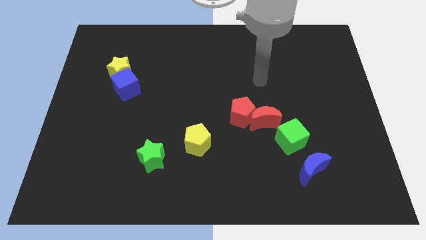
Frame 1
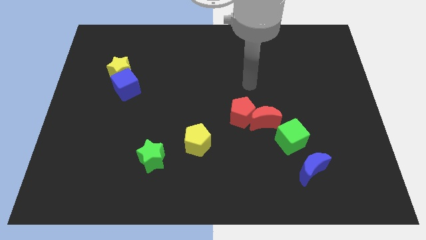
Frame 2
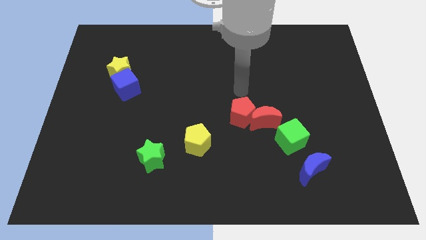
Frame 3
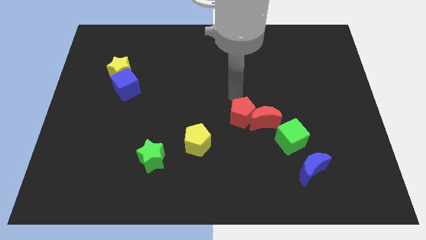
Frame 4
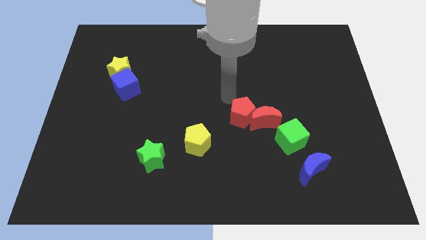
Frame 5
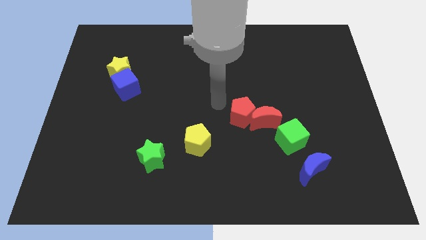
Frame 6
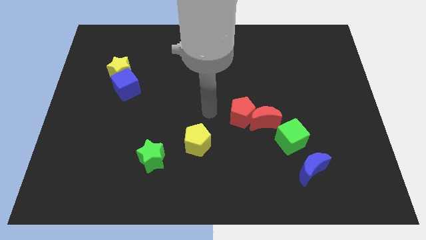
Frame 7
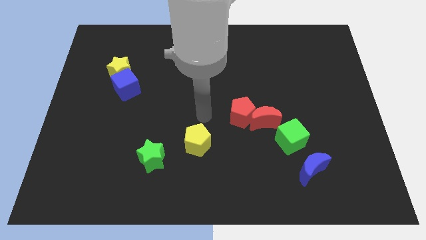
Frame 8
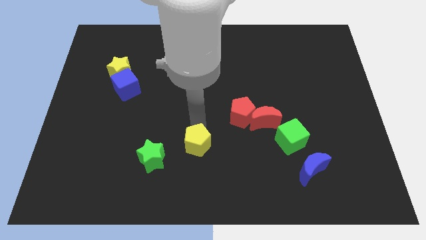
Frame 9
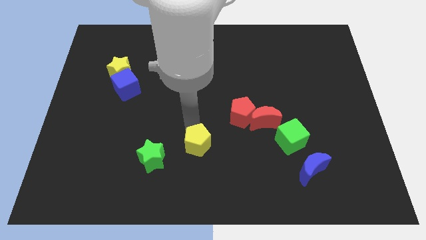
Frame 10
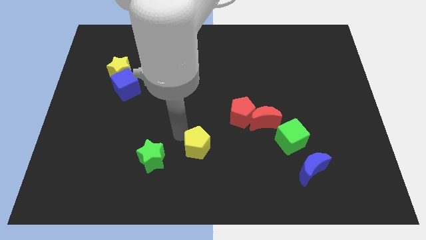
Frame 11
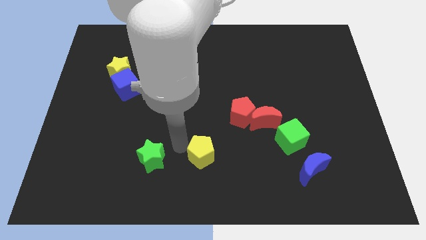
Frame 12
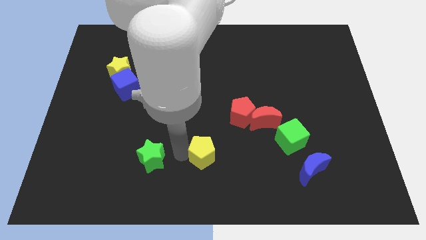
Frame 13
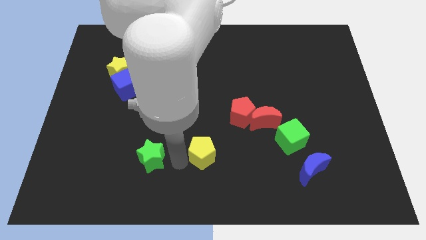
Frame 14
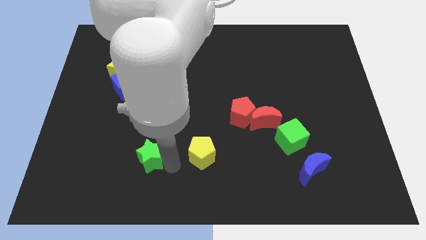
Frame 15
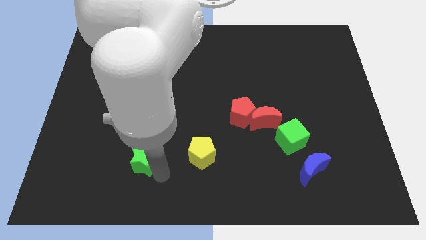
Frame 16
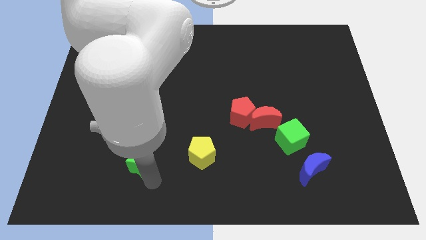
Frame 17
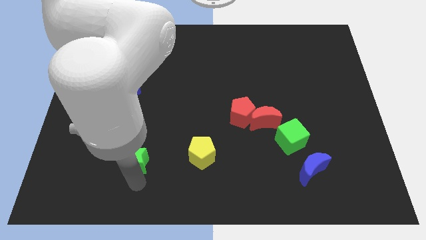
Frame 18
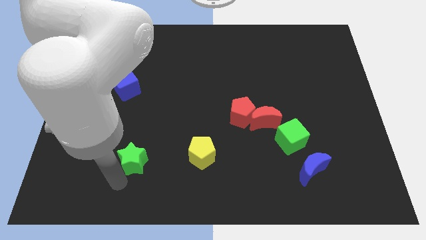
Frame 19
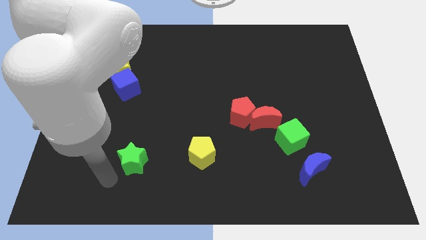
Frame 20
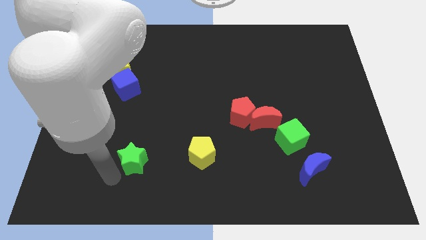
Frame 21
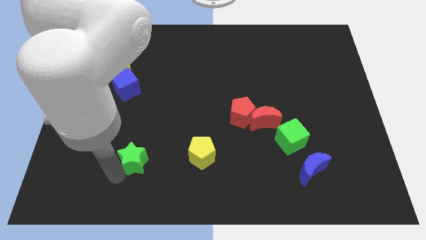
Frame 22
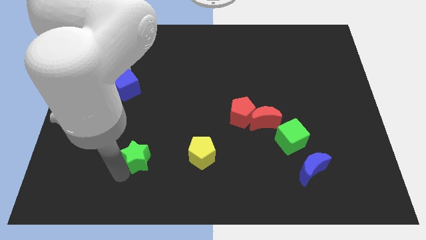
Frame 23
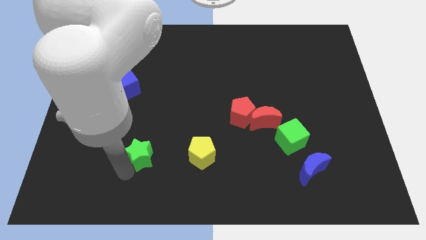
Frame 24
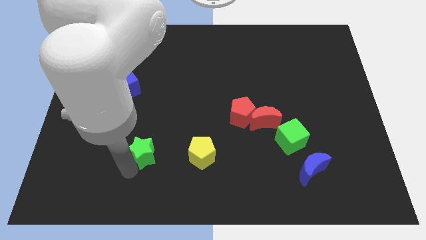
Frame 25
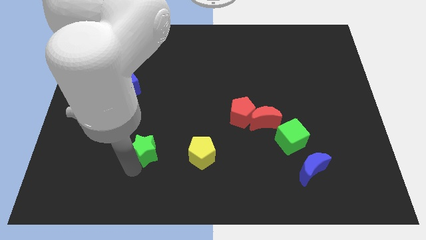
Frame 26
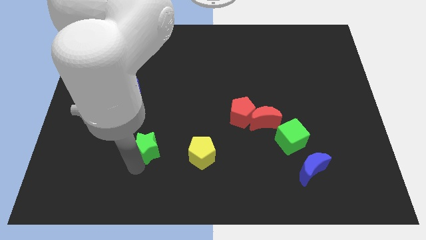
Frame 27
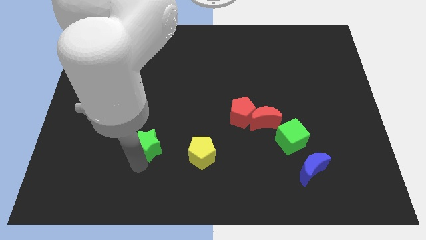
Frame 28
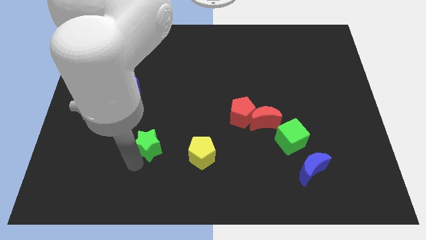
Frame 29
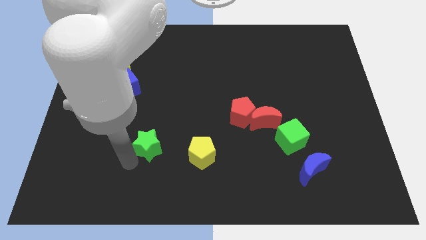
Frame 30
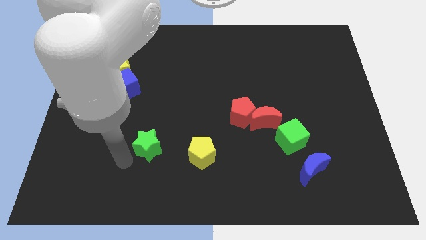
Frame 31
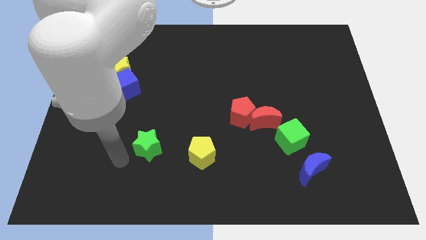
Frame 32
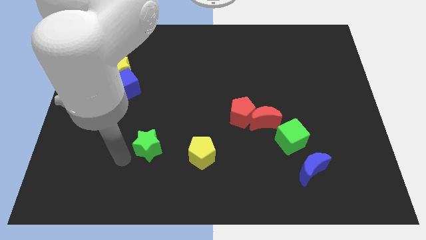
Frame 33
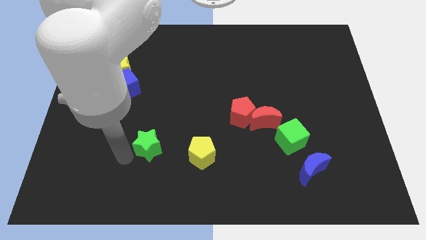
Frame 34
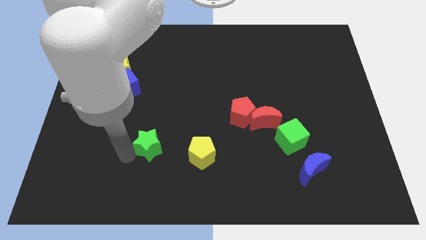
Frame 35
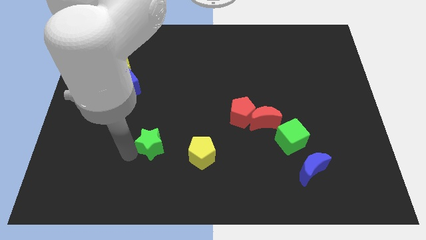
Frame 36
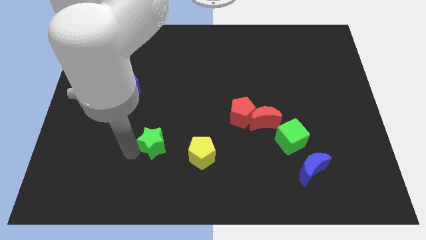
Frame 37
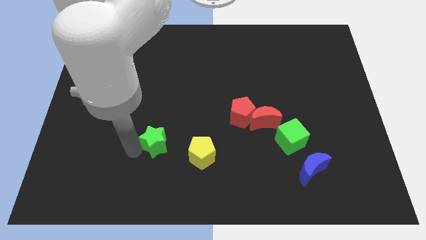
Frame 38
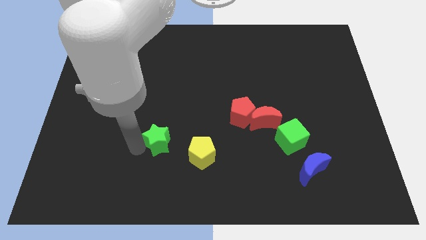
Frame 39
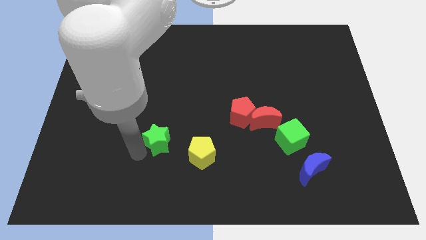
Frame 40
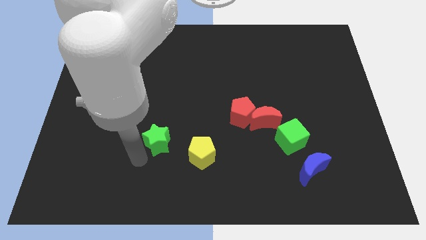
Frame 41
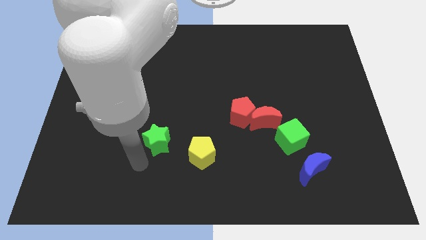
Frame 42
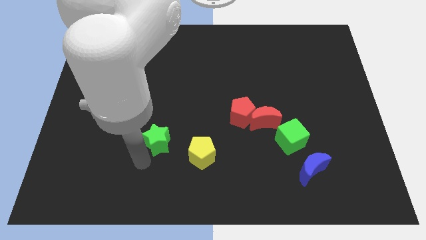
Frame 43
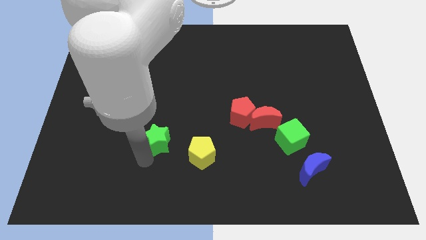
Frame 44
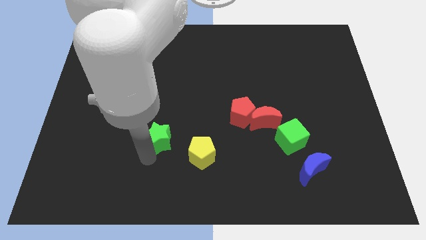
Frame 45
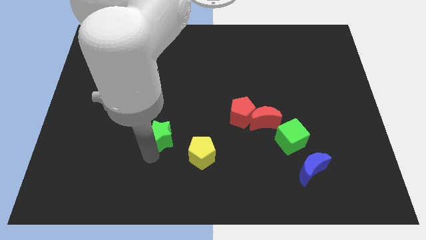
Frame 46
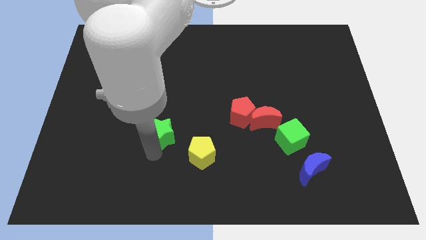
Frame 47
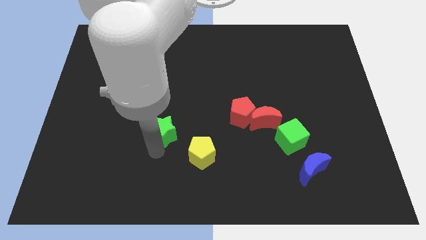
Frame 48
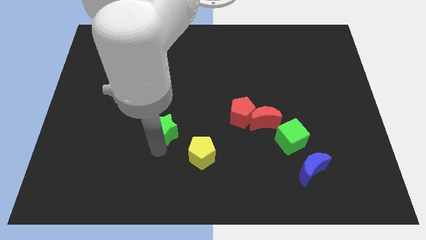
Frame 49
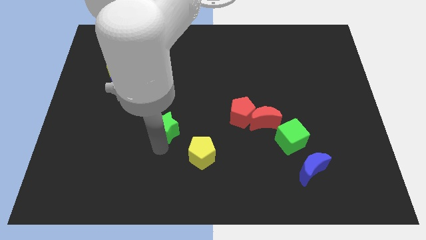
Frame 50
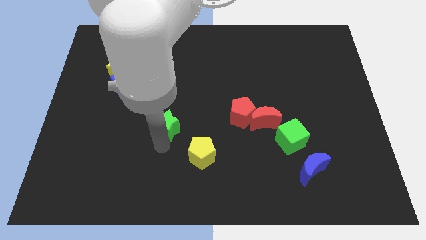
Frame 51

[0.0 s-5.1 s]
slide the green star a little bit up and then right

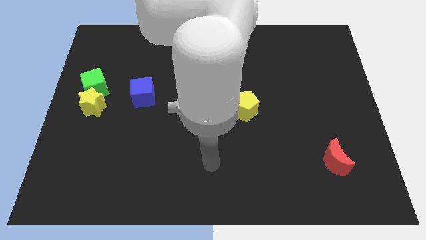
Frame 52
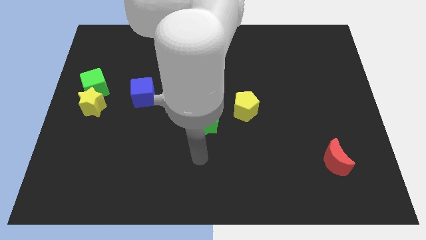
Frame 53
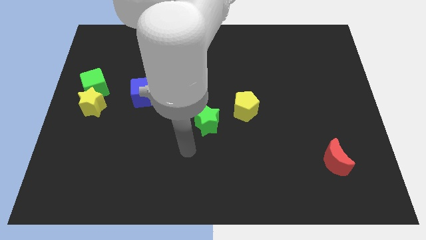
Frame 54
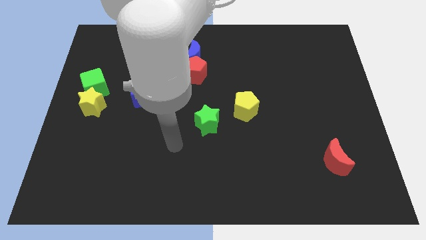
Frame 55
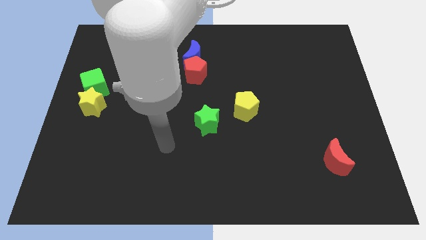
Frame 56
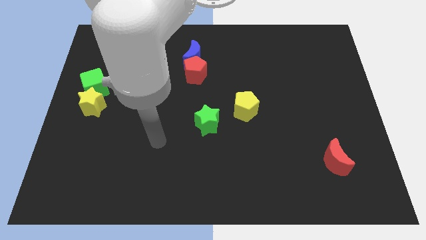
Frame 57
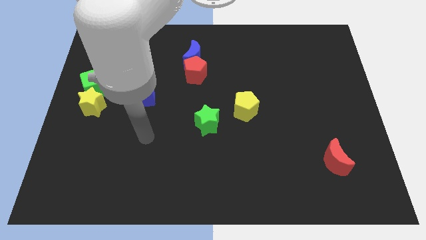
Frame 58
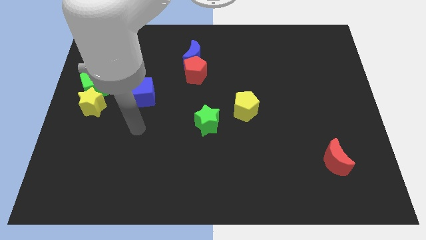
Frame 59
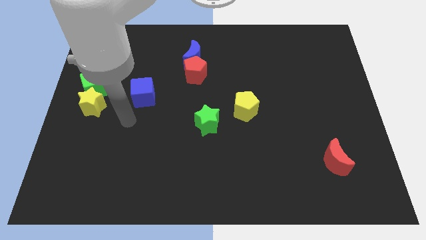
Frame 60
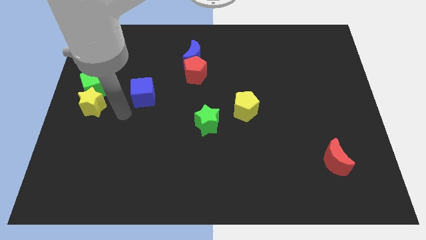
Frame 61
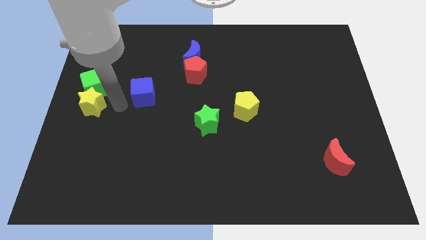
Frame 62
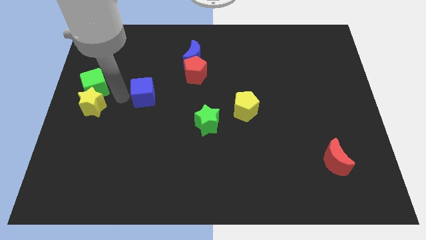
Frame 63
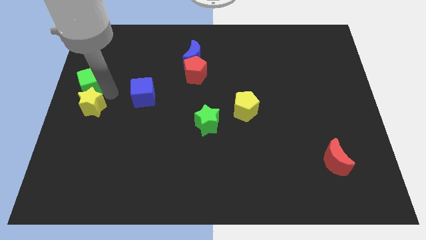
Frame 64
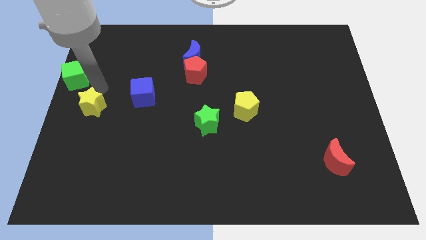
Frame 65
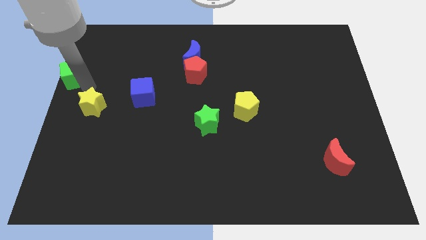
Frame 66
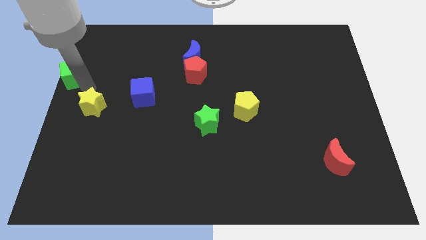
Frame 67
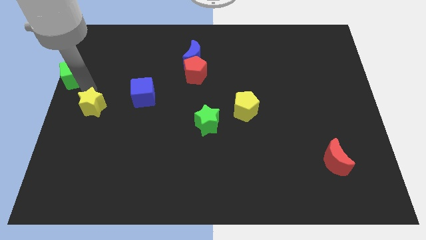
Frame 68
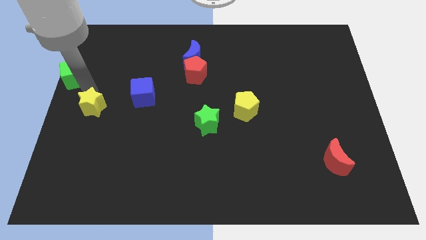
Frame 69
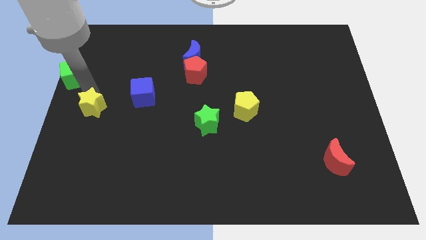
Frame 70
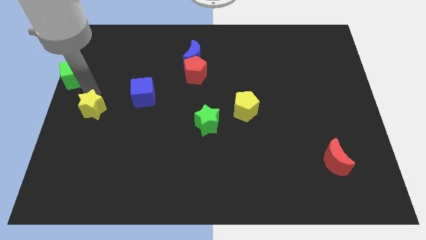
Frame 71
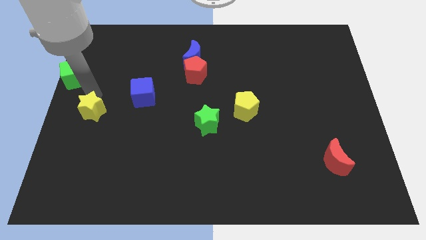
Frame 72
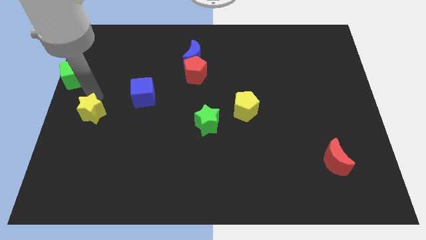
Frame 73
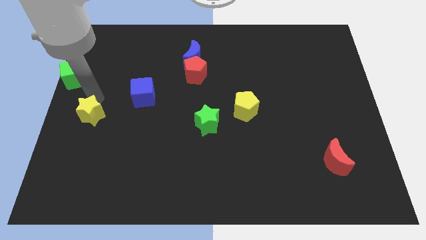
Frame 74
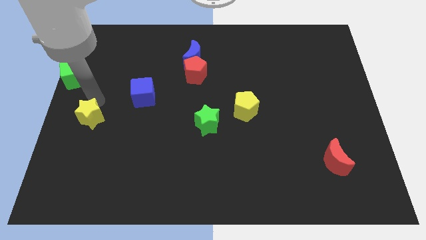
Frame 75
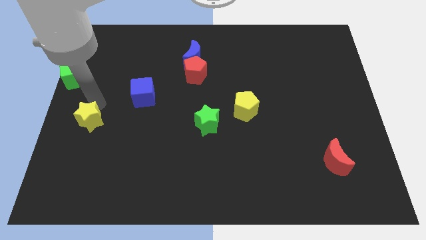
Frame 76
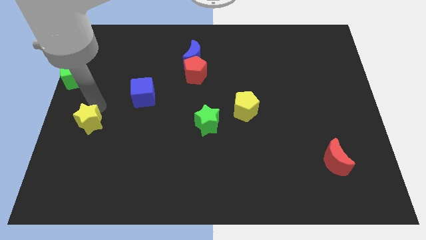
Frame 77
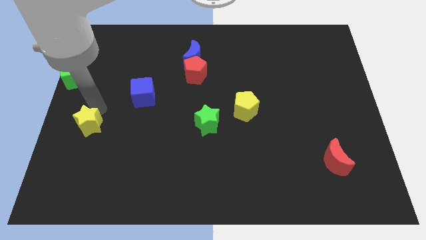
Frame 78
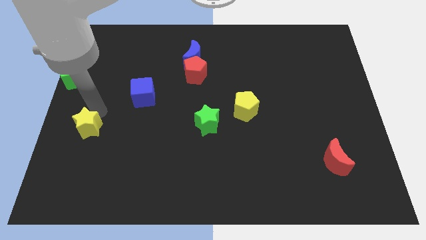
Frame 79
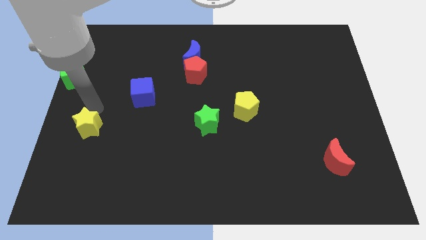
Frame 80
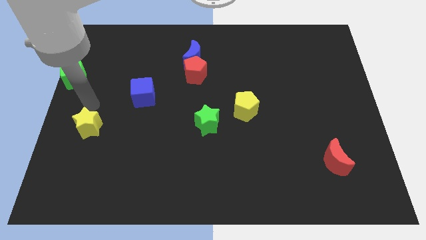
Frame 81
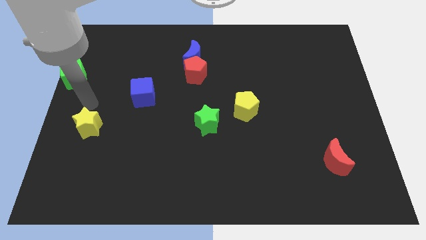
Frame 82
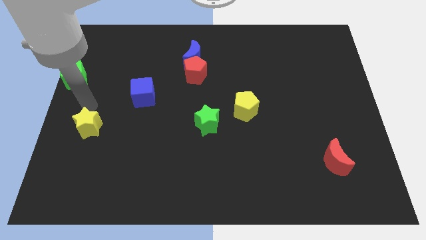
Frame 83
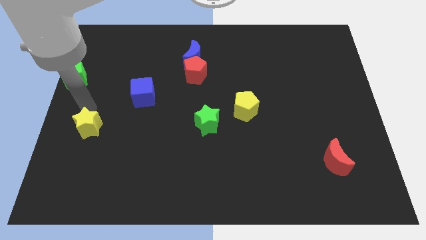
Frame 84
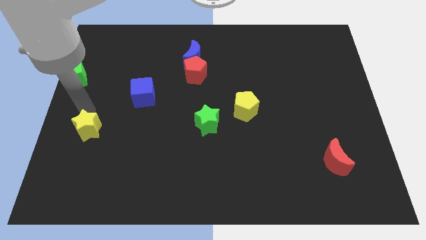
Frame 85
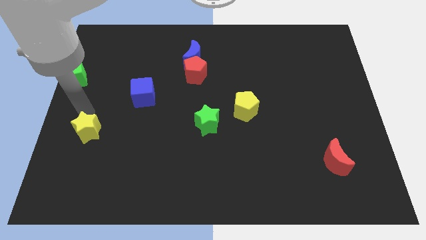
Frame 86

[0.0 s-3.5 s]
slightly move the yellow star downwards
